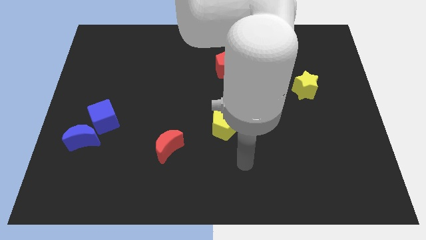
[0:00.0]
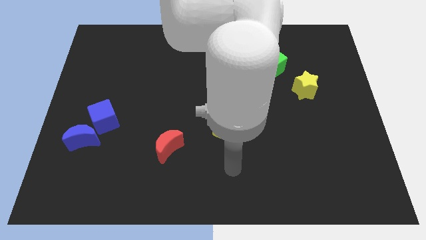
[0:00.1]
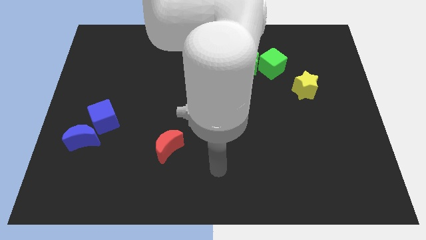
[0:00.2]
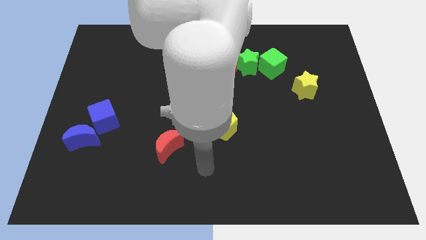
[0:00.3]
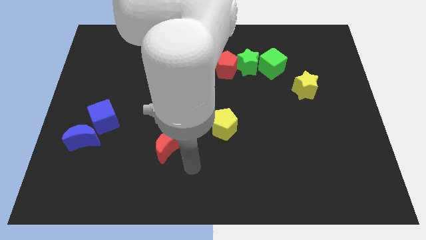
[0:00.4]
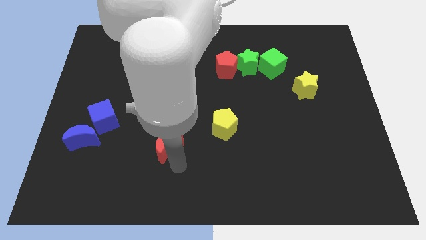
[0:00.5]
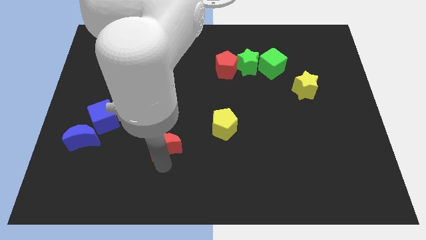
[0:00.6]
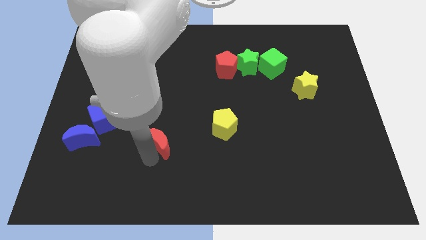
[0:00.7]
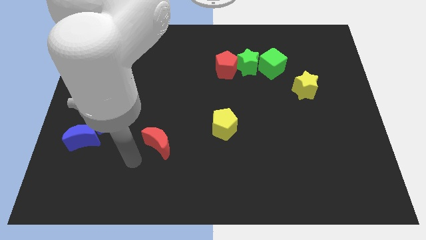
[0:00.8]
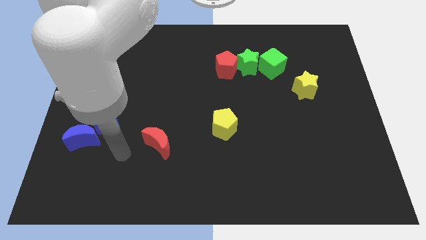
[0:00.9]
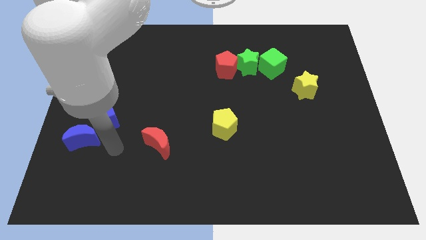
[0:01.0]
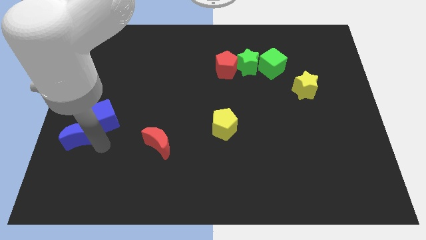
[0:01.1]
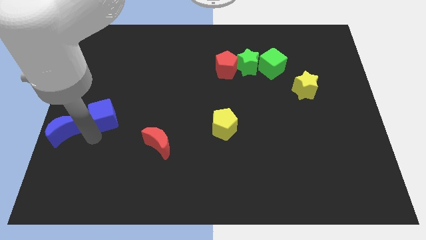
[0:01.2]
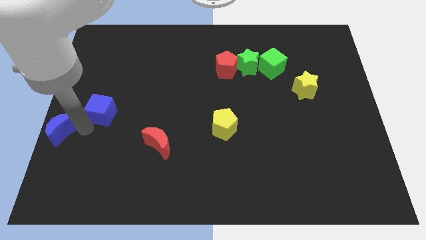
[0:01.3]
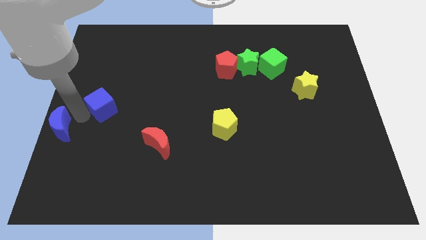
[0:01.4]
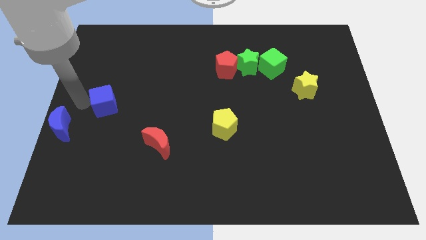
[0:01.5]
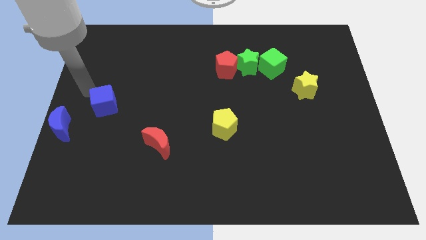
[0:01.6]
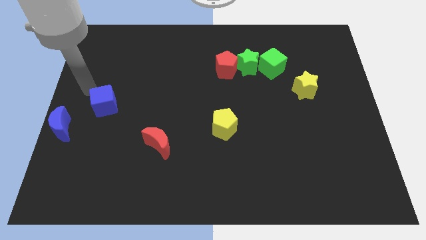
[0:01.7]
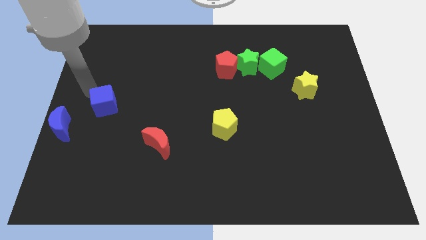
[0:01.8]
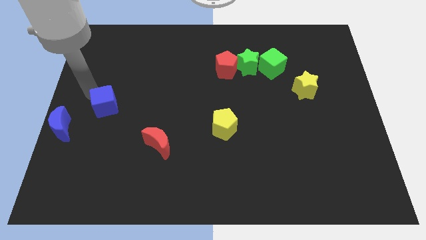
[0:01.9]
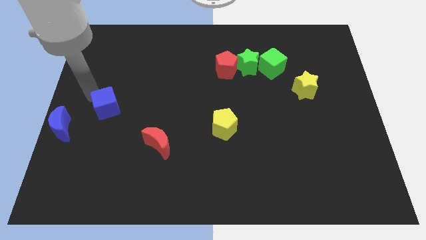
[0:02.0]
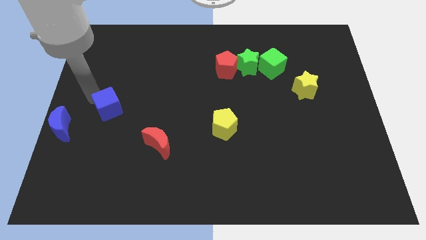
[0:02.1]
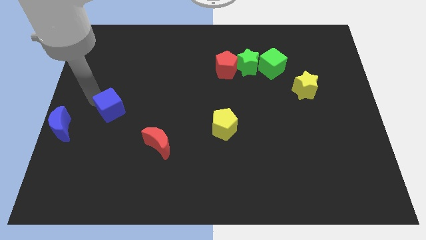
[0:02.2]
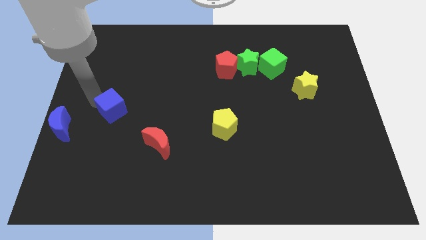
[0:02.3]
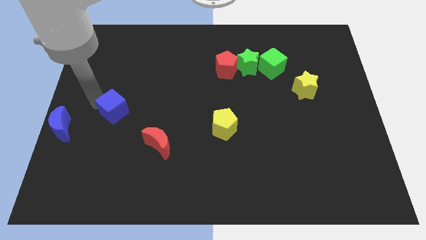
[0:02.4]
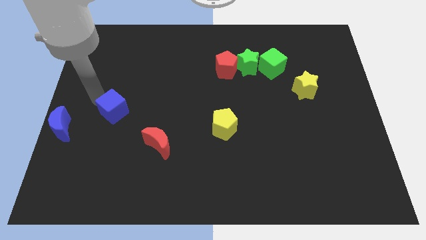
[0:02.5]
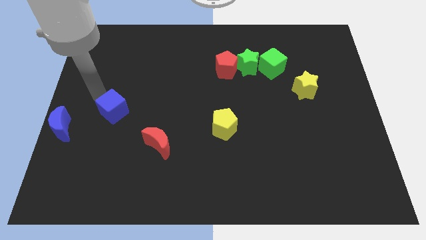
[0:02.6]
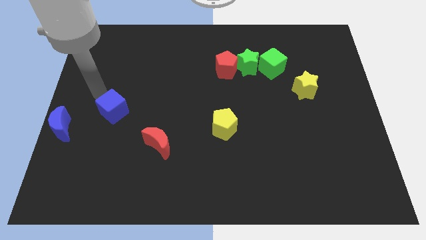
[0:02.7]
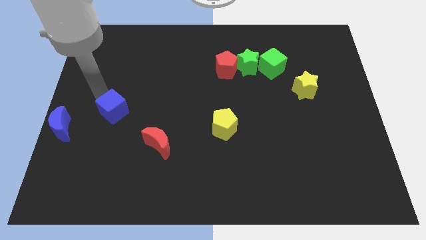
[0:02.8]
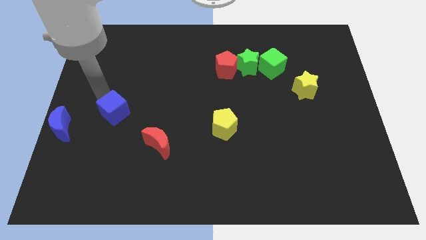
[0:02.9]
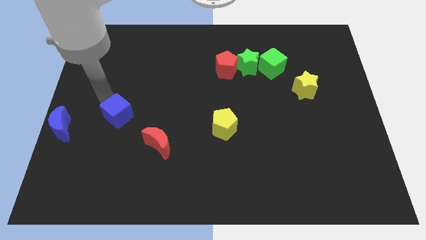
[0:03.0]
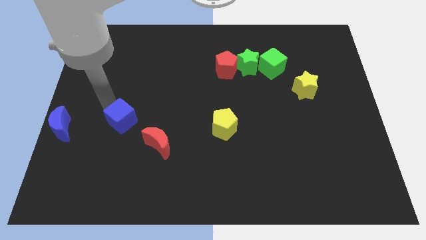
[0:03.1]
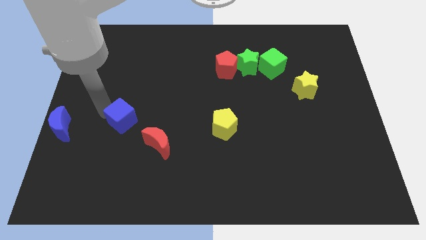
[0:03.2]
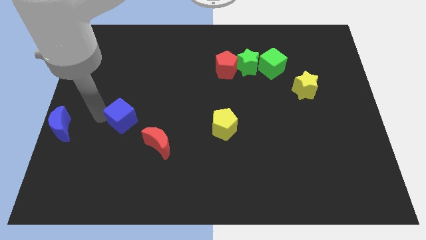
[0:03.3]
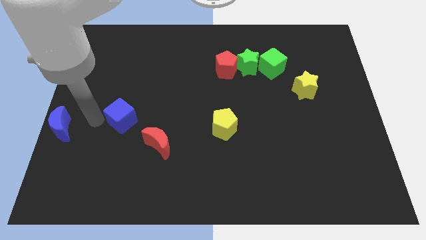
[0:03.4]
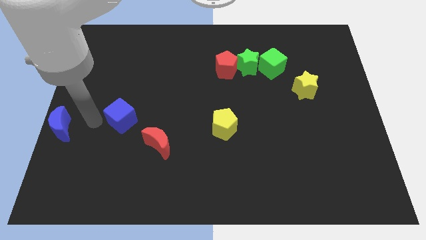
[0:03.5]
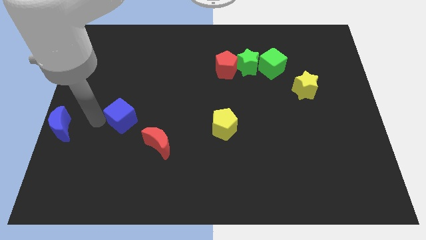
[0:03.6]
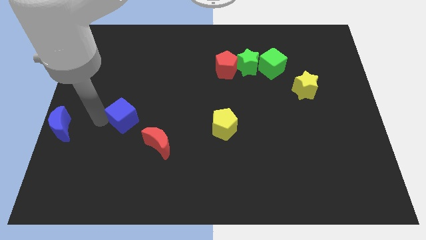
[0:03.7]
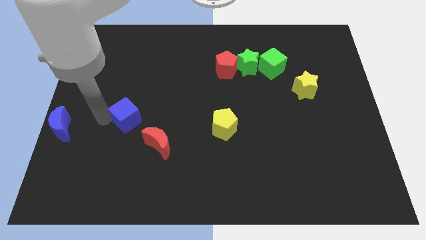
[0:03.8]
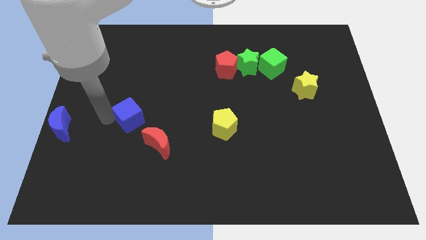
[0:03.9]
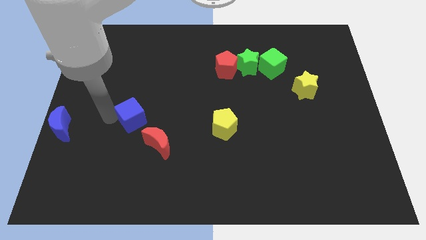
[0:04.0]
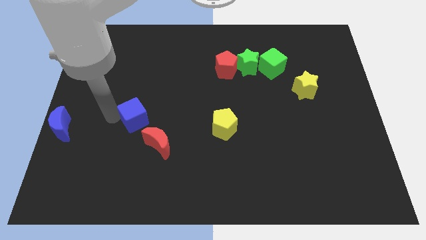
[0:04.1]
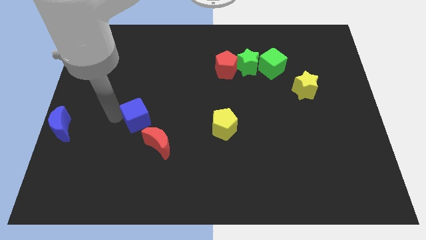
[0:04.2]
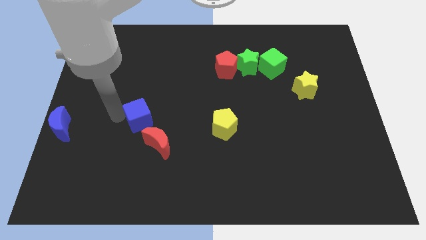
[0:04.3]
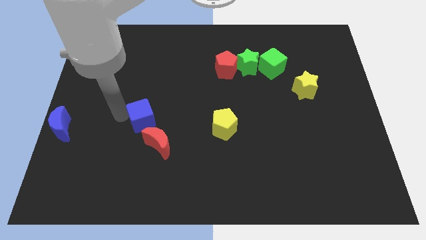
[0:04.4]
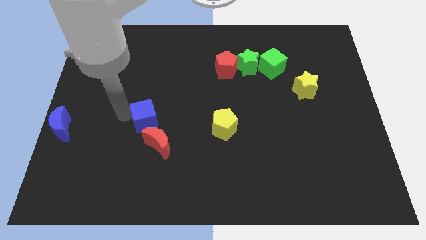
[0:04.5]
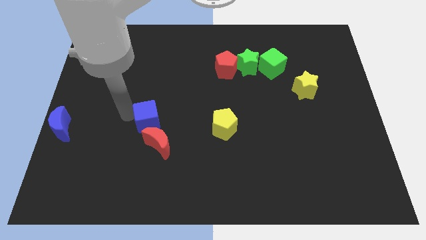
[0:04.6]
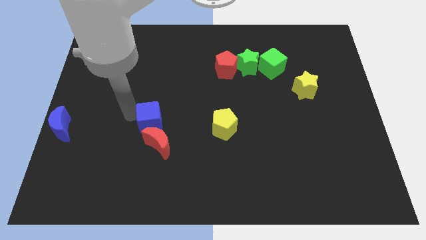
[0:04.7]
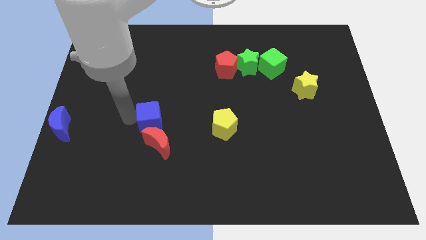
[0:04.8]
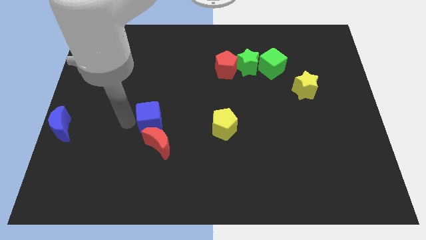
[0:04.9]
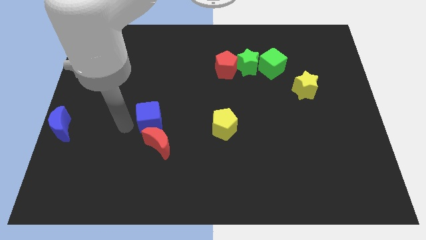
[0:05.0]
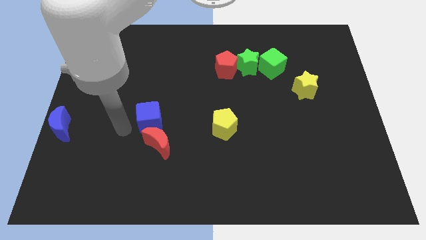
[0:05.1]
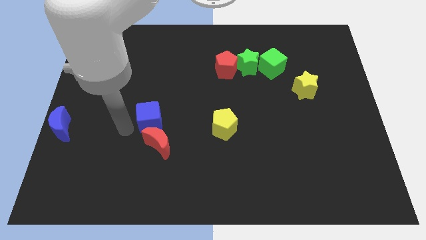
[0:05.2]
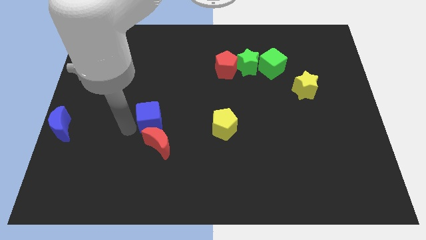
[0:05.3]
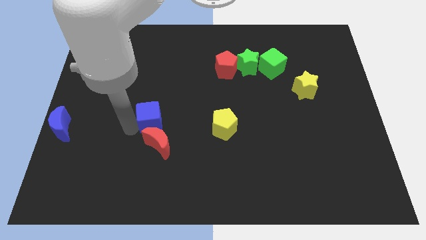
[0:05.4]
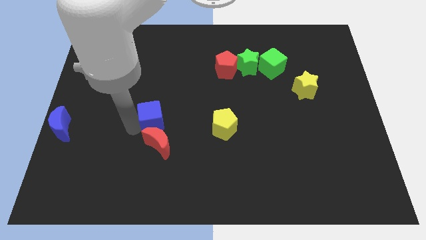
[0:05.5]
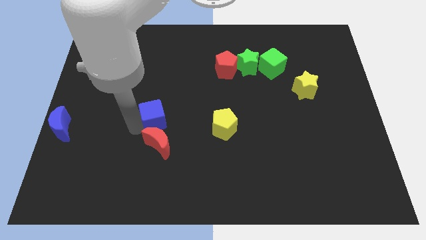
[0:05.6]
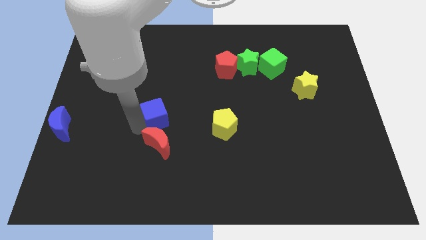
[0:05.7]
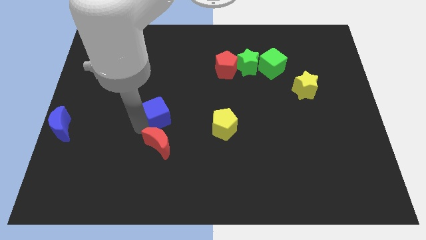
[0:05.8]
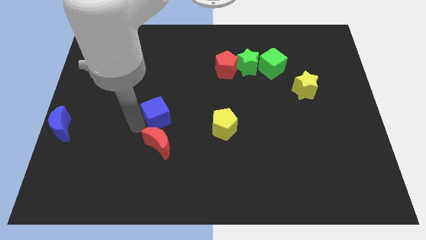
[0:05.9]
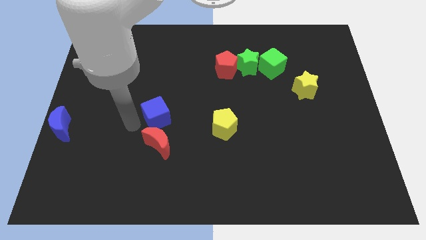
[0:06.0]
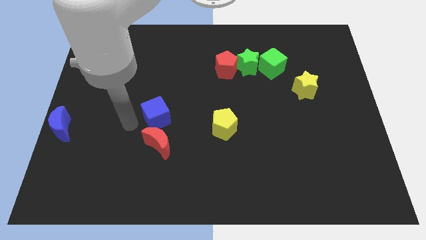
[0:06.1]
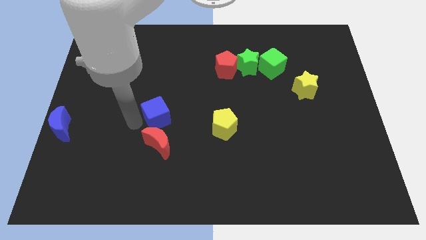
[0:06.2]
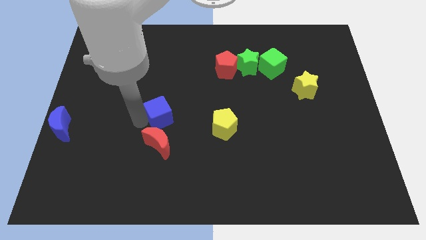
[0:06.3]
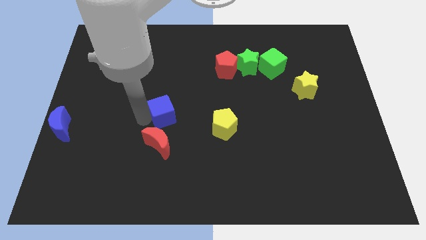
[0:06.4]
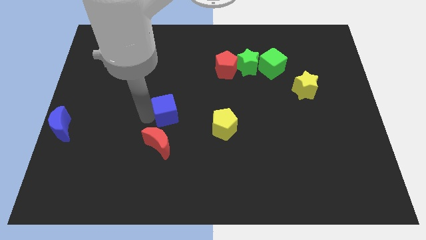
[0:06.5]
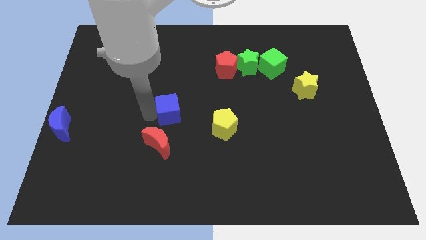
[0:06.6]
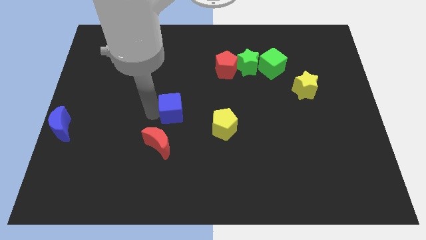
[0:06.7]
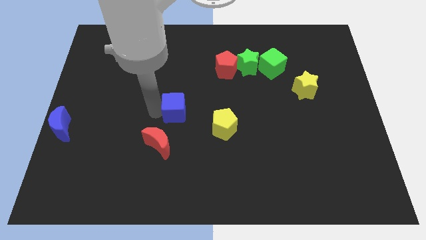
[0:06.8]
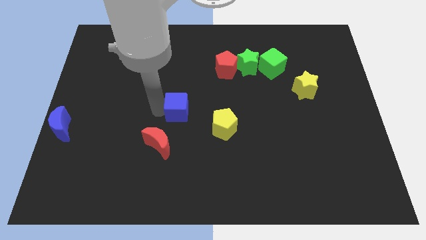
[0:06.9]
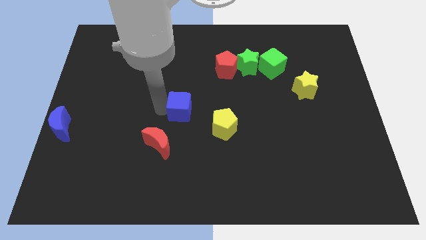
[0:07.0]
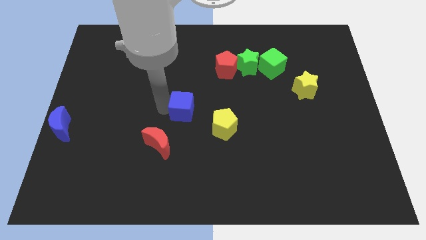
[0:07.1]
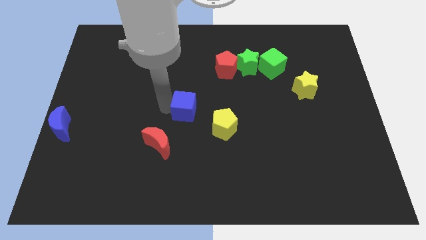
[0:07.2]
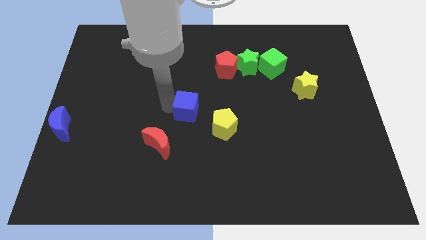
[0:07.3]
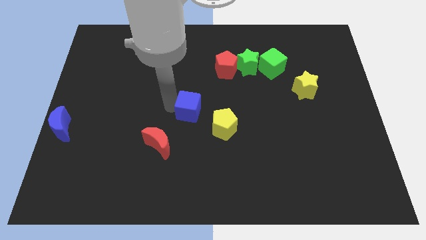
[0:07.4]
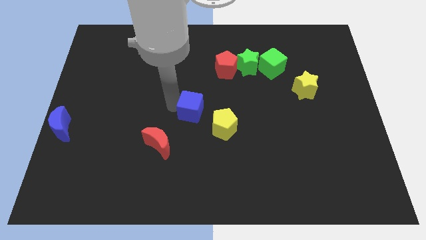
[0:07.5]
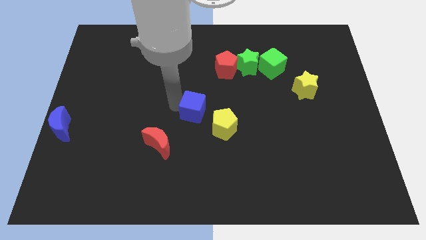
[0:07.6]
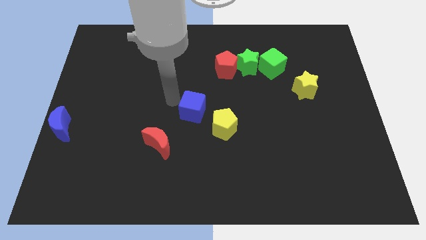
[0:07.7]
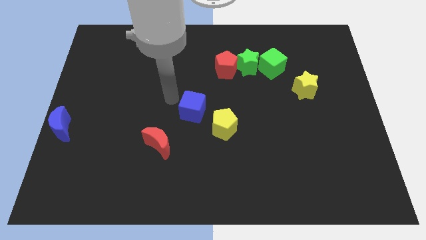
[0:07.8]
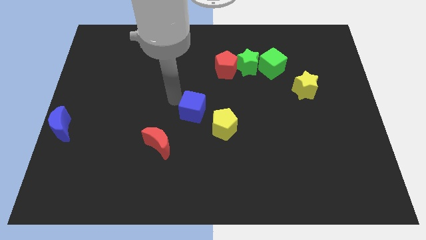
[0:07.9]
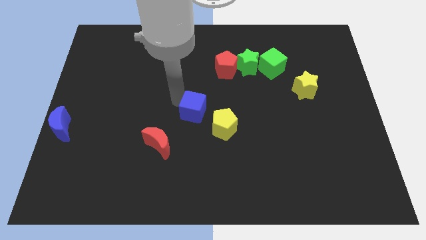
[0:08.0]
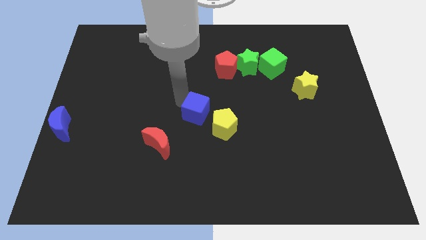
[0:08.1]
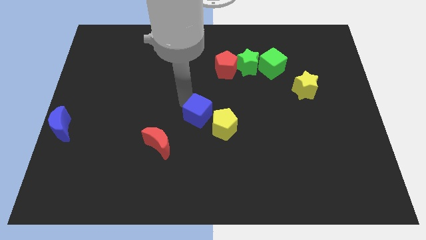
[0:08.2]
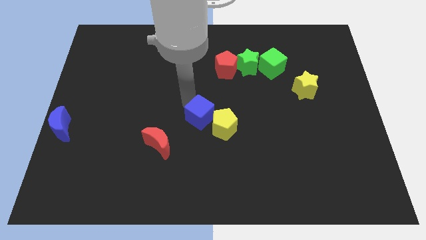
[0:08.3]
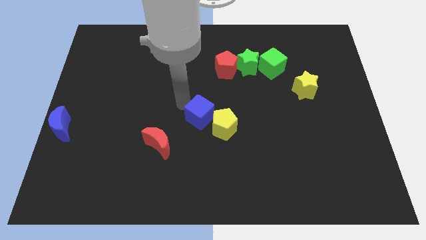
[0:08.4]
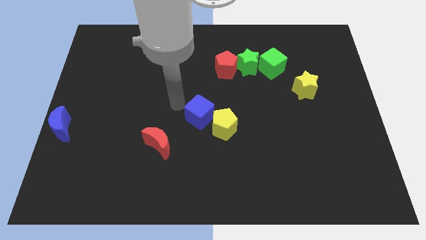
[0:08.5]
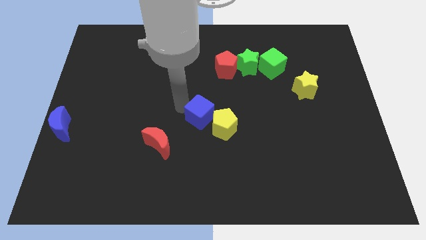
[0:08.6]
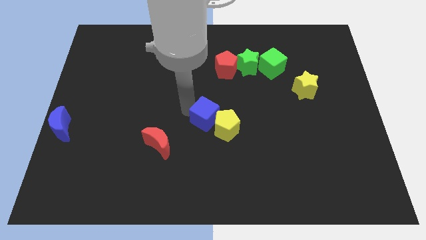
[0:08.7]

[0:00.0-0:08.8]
move the blue cube towards the yellow pentagon
